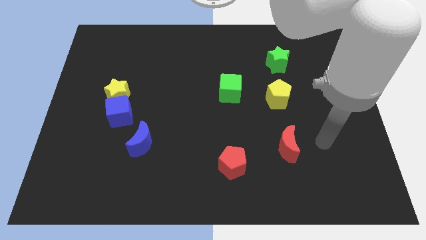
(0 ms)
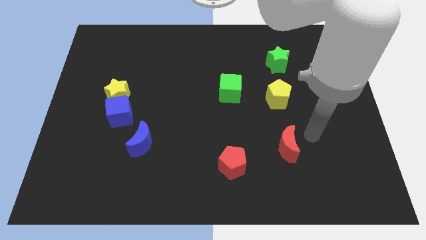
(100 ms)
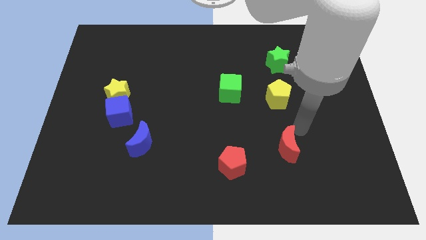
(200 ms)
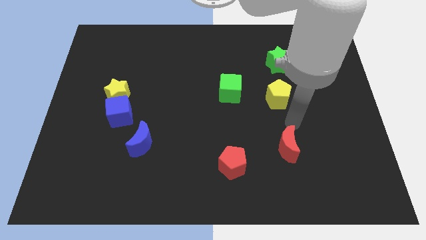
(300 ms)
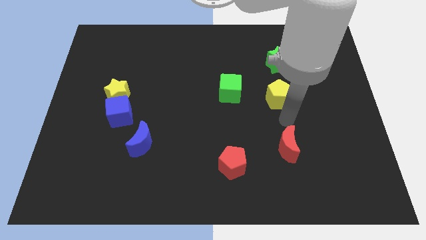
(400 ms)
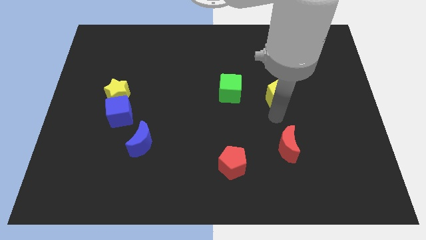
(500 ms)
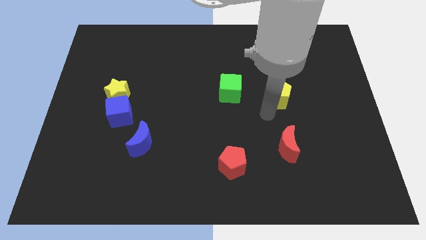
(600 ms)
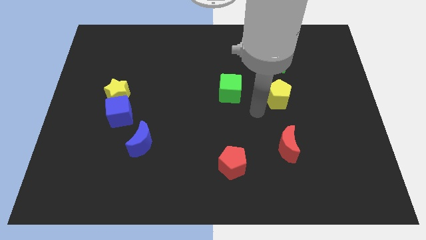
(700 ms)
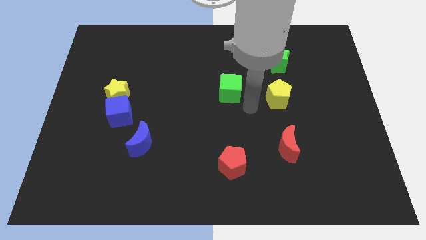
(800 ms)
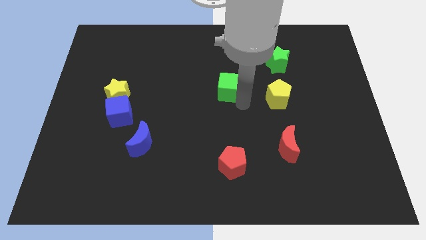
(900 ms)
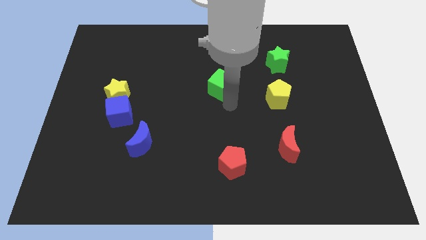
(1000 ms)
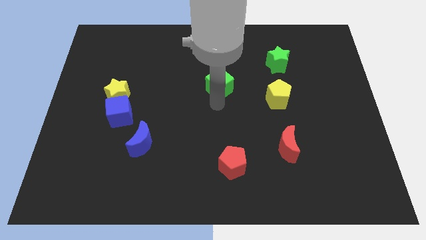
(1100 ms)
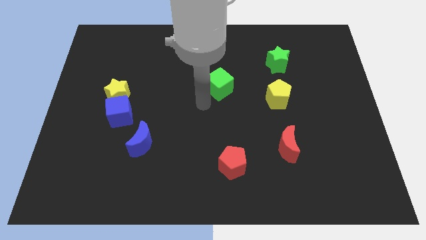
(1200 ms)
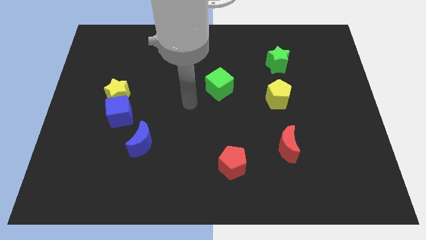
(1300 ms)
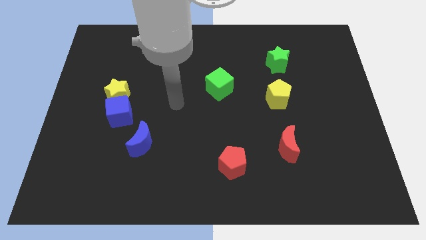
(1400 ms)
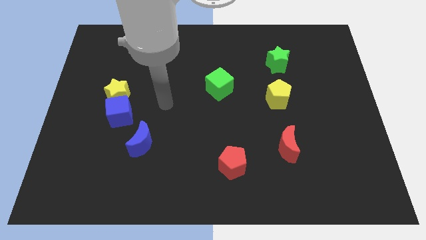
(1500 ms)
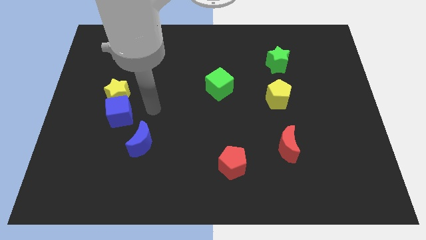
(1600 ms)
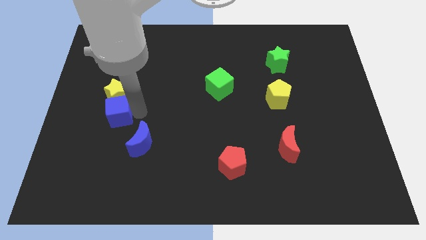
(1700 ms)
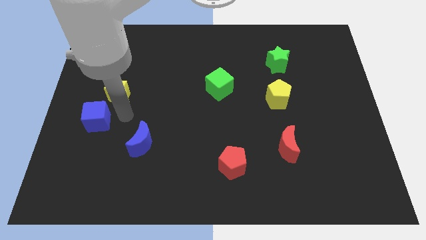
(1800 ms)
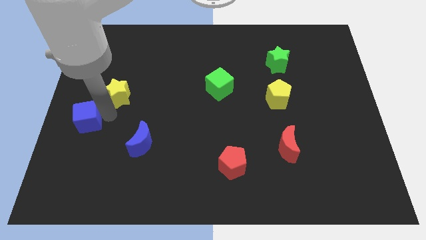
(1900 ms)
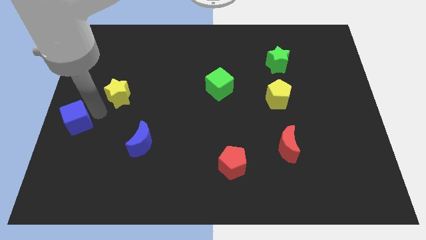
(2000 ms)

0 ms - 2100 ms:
separate the yellow star from the blue cube

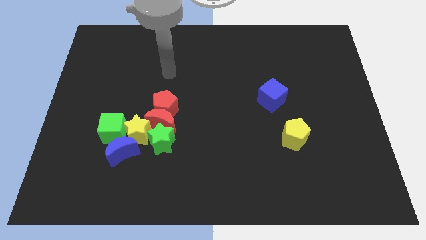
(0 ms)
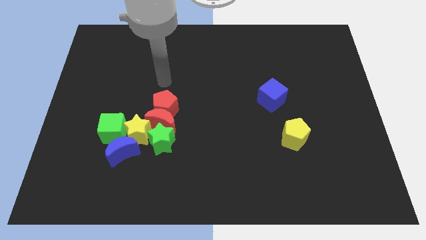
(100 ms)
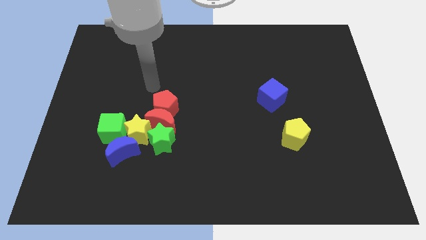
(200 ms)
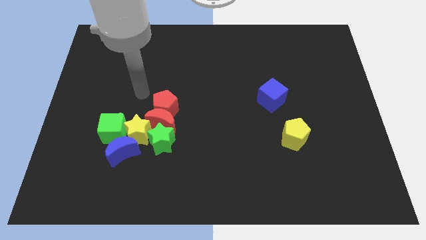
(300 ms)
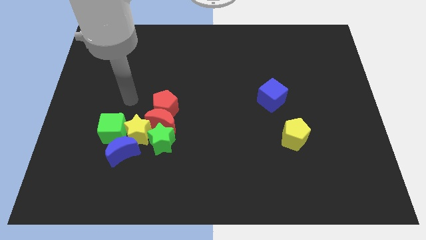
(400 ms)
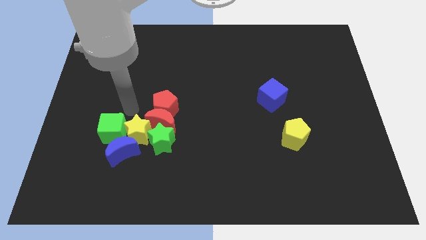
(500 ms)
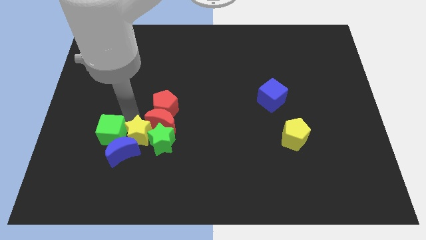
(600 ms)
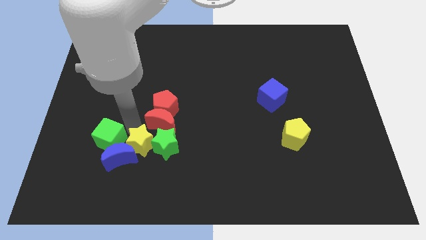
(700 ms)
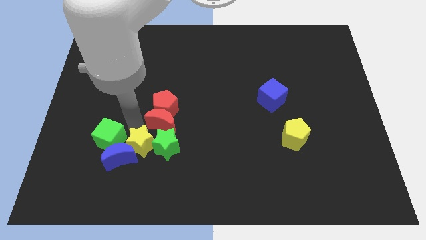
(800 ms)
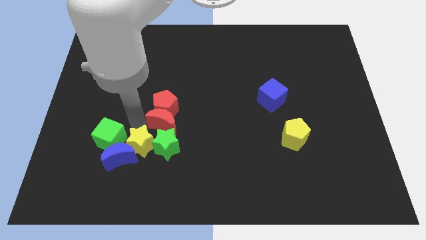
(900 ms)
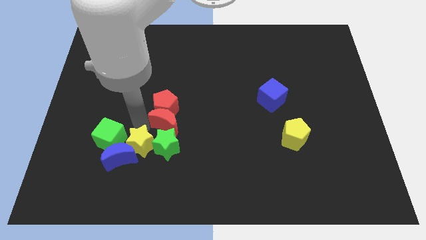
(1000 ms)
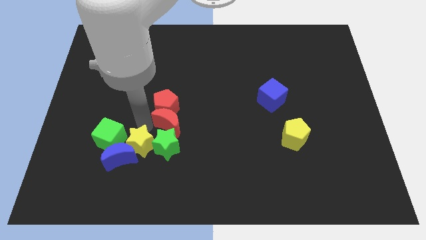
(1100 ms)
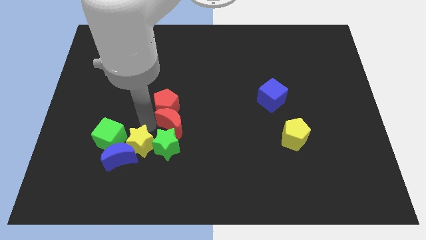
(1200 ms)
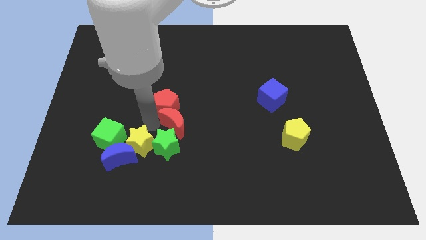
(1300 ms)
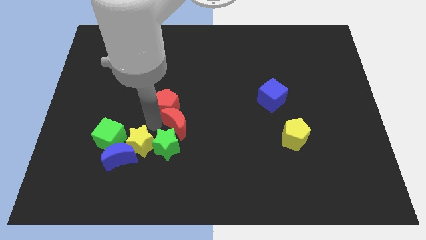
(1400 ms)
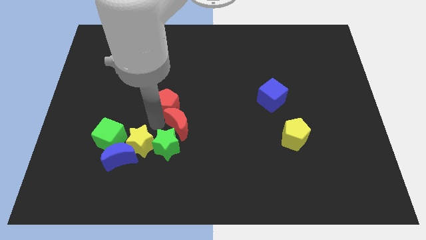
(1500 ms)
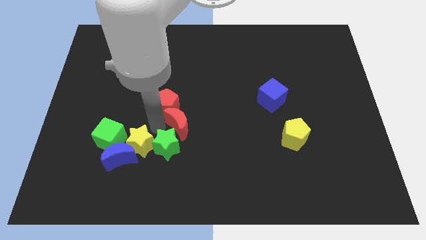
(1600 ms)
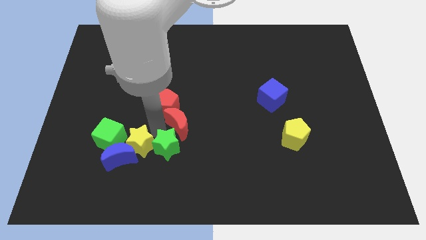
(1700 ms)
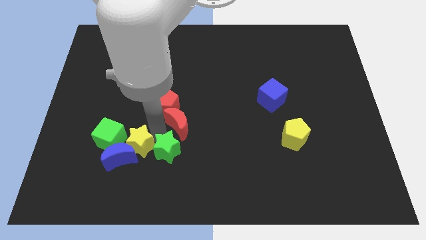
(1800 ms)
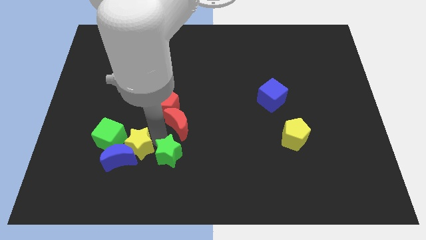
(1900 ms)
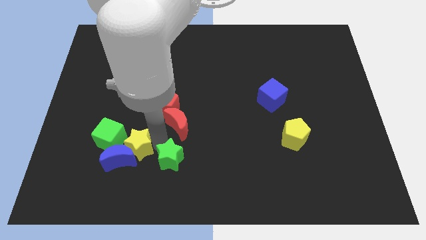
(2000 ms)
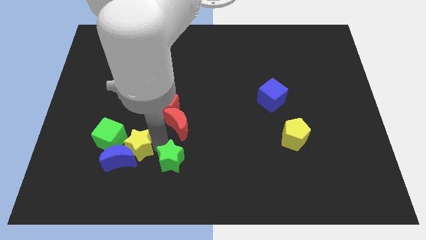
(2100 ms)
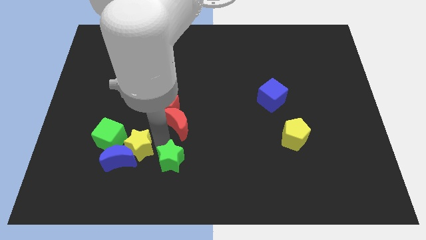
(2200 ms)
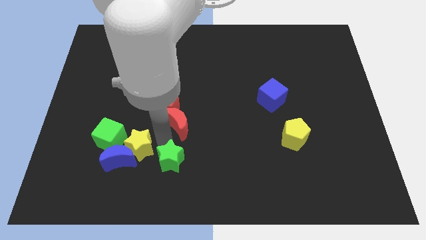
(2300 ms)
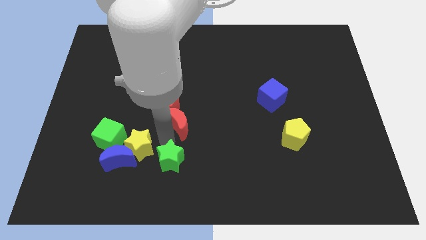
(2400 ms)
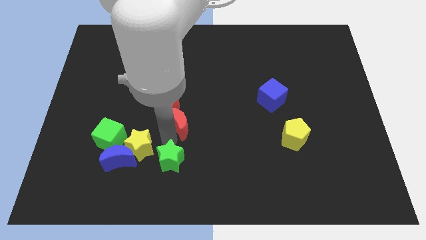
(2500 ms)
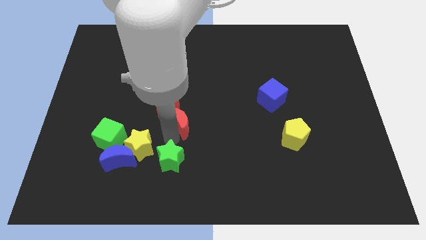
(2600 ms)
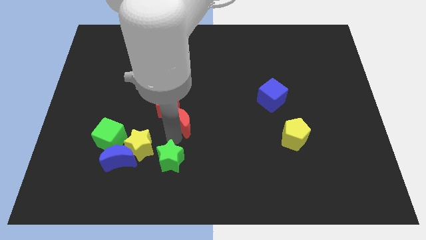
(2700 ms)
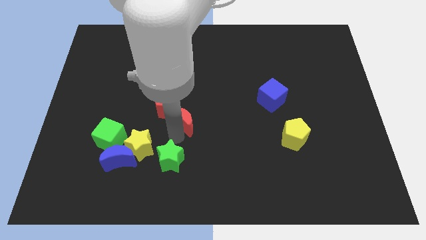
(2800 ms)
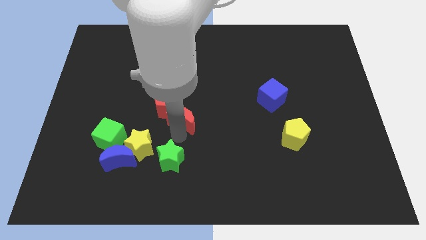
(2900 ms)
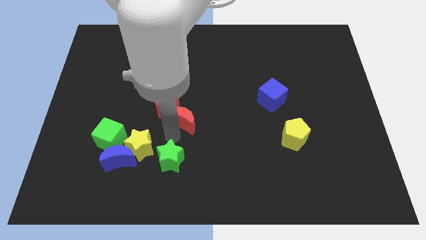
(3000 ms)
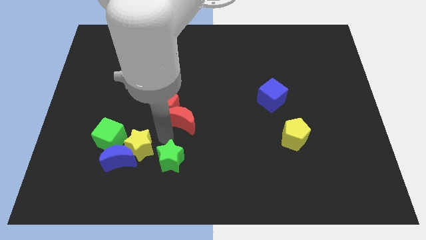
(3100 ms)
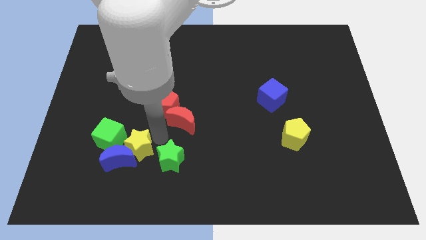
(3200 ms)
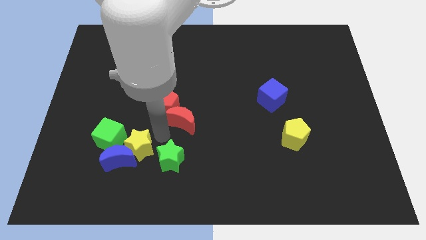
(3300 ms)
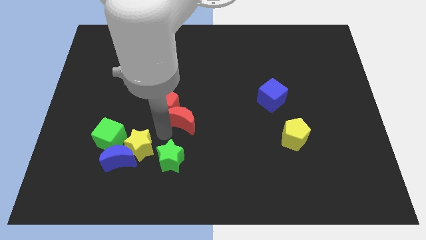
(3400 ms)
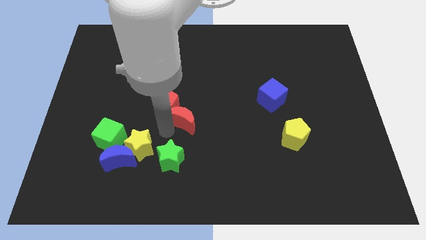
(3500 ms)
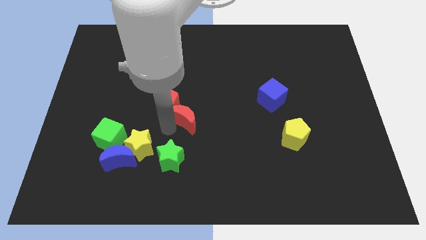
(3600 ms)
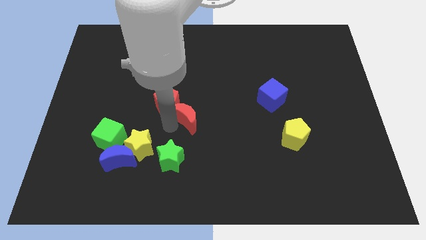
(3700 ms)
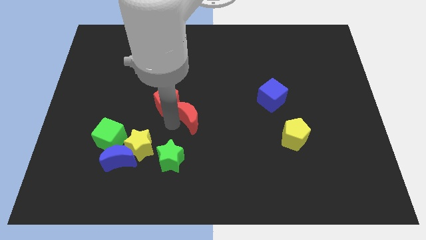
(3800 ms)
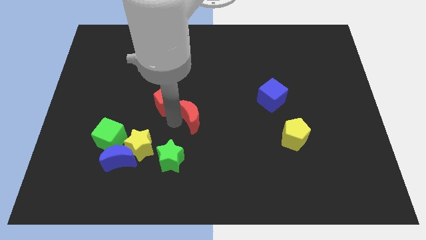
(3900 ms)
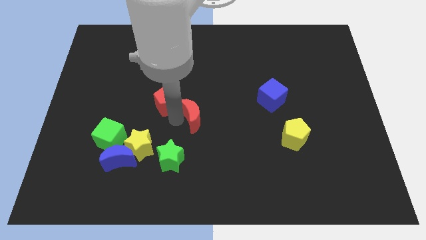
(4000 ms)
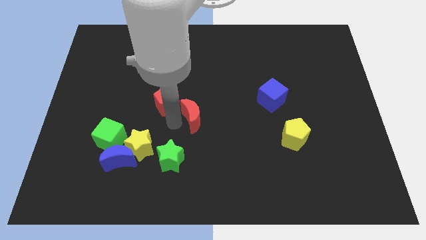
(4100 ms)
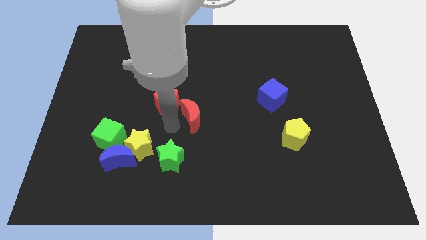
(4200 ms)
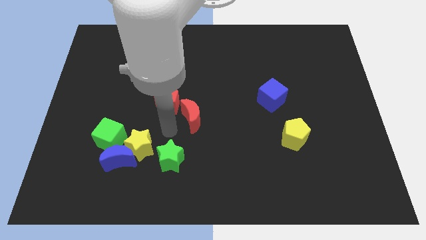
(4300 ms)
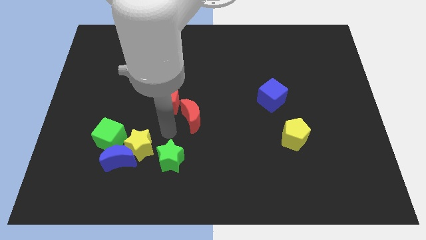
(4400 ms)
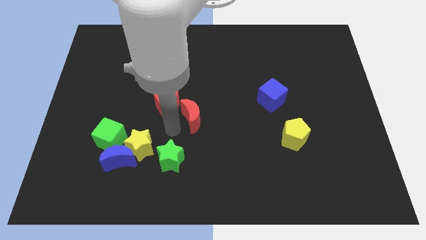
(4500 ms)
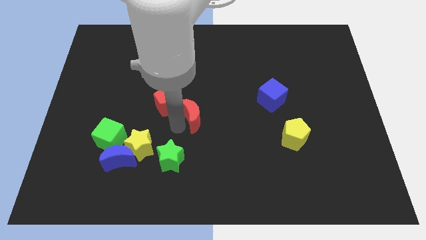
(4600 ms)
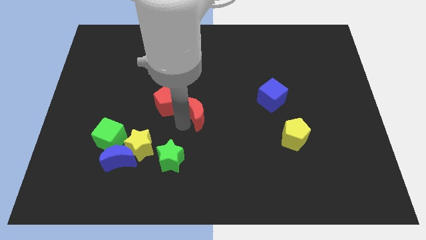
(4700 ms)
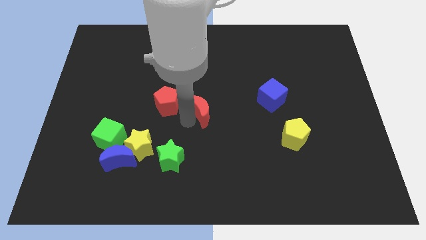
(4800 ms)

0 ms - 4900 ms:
pull the red moon apart from the red pentagon, green star, and yellow star

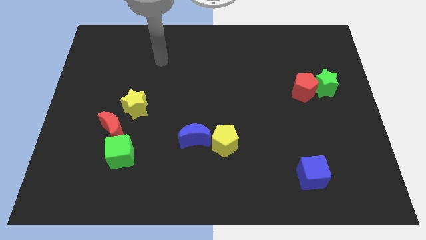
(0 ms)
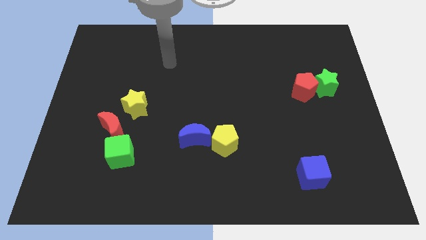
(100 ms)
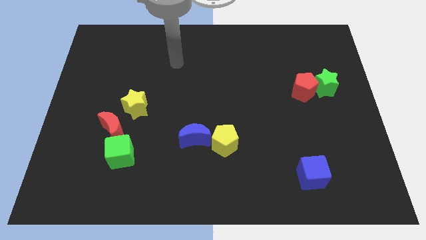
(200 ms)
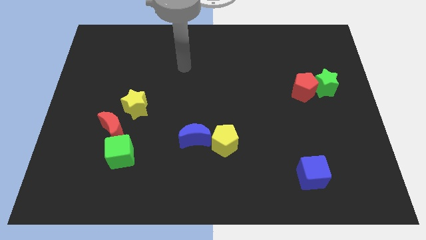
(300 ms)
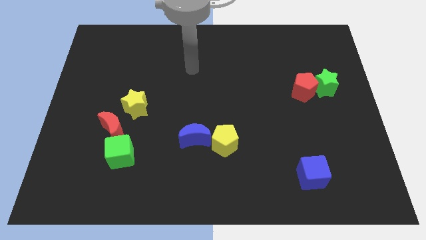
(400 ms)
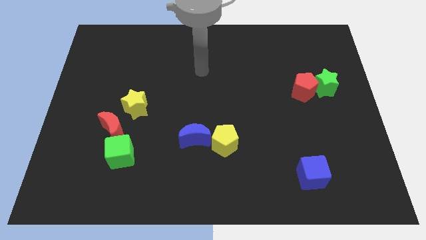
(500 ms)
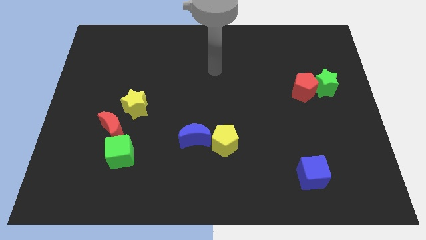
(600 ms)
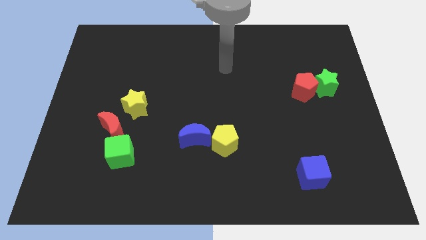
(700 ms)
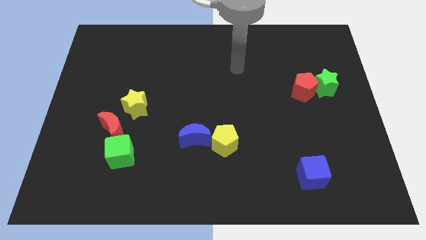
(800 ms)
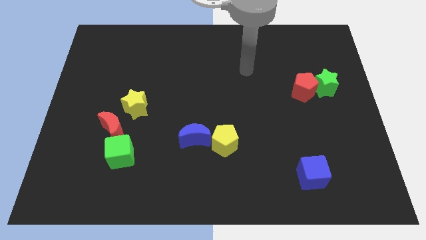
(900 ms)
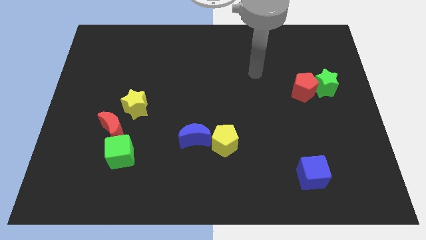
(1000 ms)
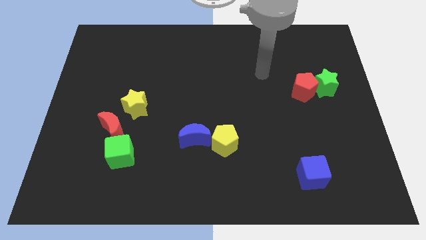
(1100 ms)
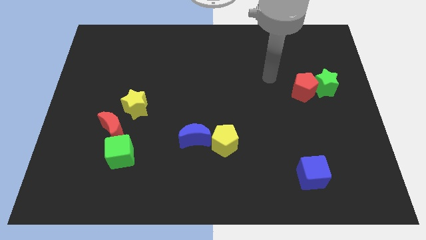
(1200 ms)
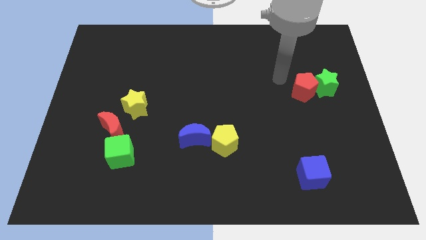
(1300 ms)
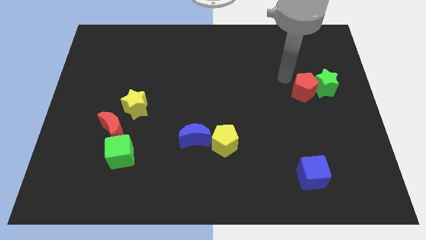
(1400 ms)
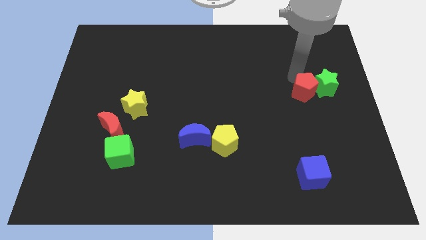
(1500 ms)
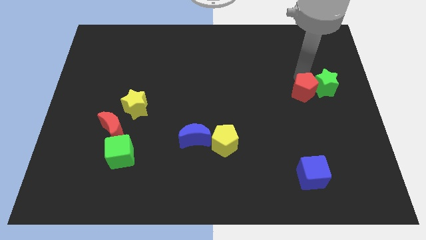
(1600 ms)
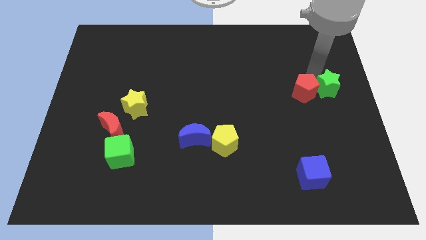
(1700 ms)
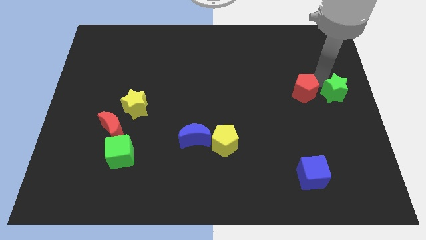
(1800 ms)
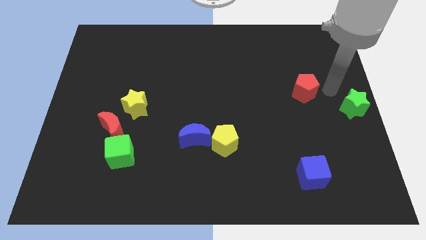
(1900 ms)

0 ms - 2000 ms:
move the red pentagon away from the green star

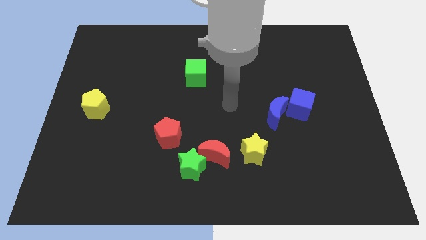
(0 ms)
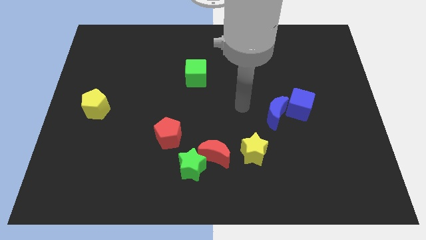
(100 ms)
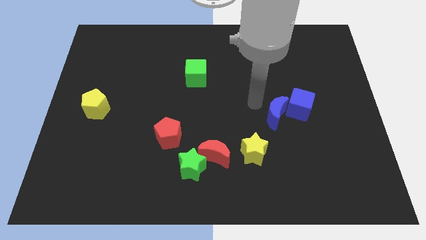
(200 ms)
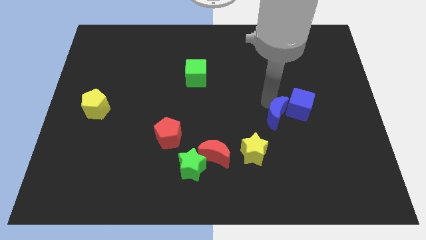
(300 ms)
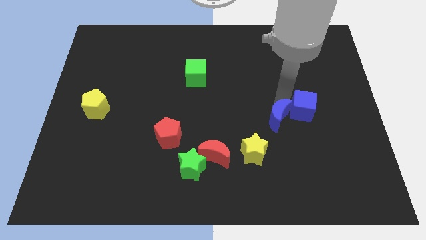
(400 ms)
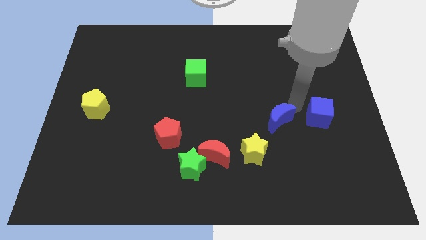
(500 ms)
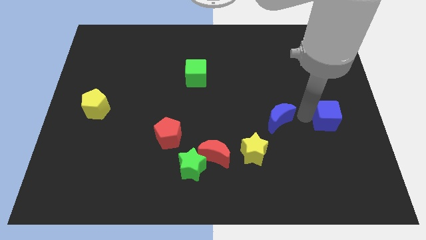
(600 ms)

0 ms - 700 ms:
move the blue moon away from the blue cube
